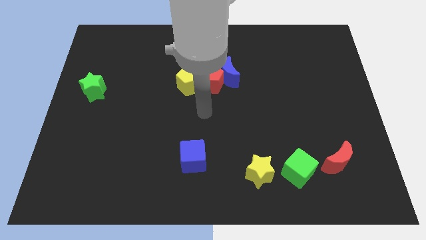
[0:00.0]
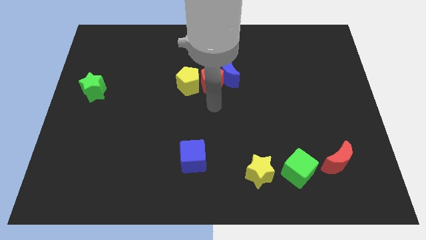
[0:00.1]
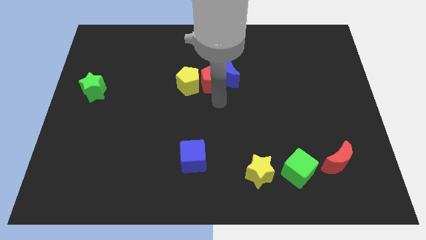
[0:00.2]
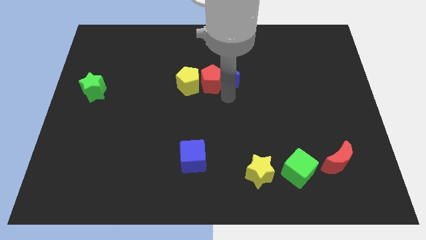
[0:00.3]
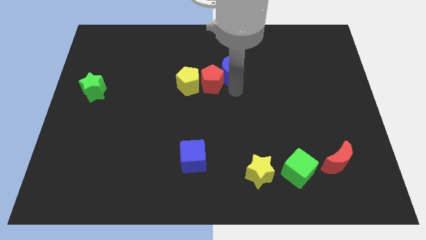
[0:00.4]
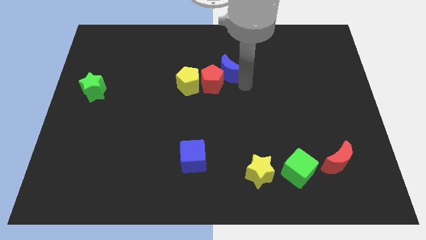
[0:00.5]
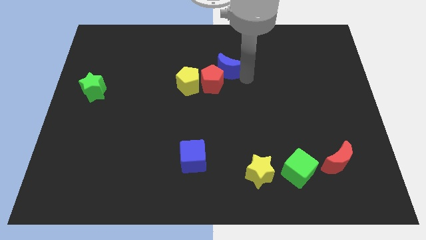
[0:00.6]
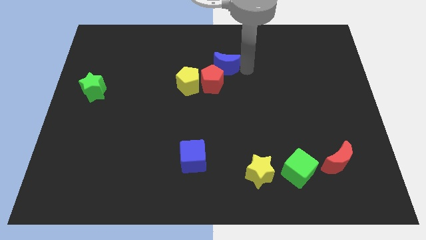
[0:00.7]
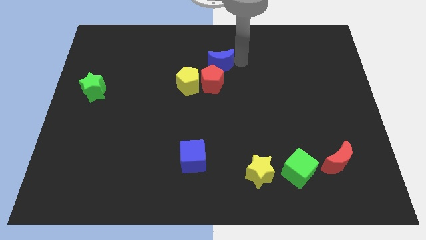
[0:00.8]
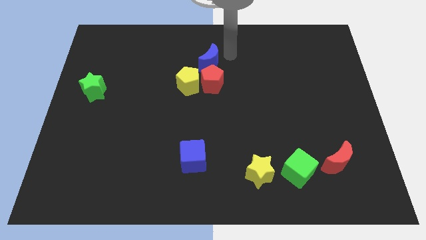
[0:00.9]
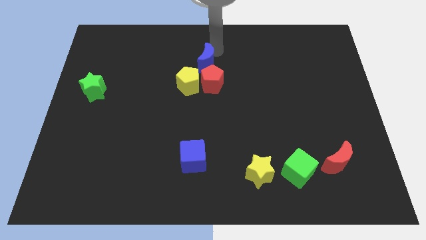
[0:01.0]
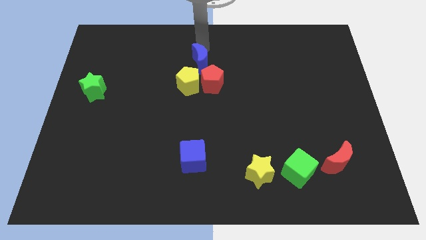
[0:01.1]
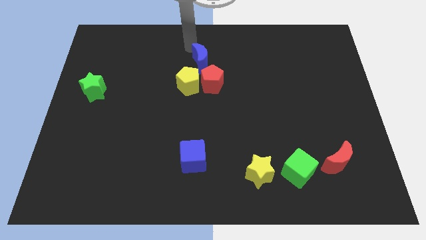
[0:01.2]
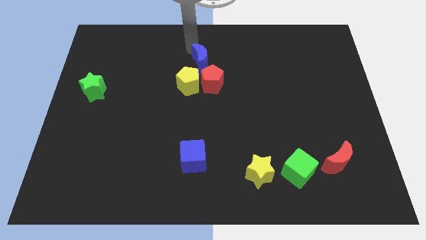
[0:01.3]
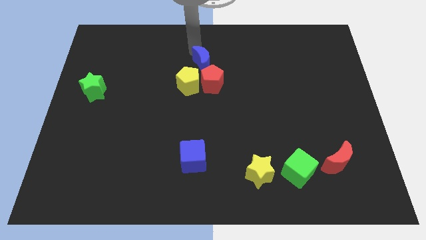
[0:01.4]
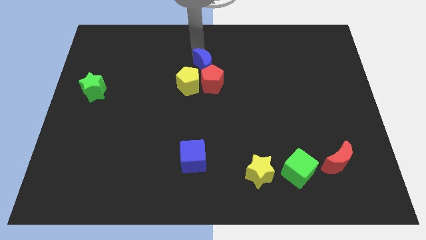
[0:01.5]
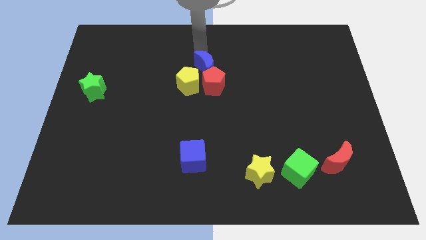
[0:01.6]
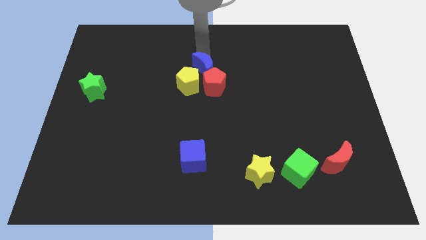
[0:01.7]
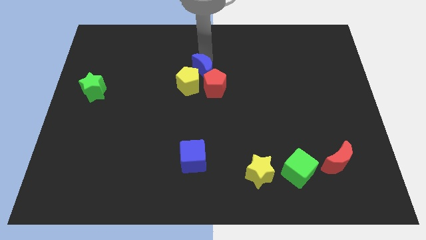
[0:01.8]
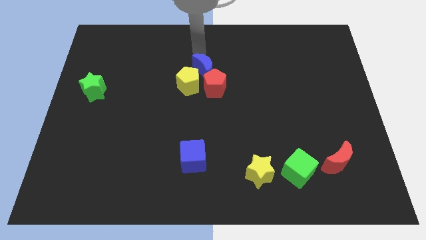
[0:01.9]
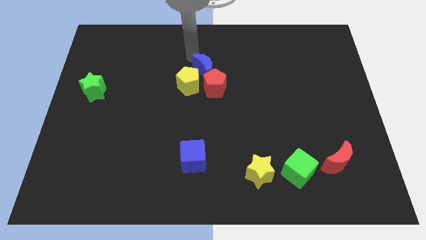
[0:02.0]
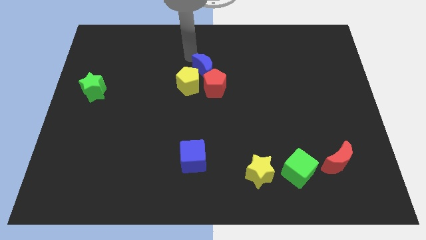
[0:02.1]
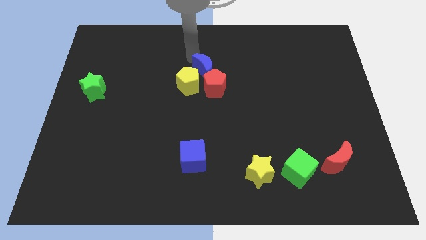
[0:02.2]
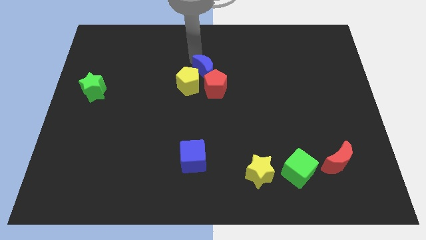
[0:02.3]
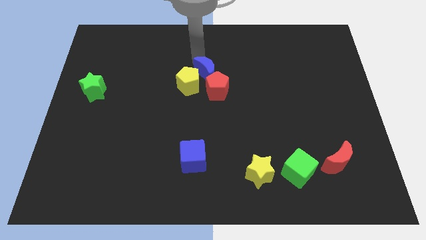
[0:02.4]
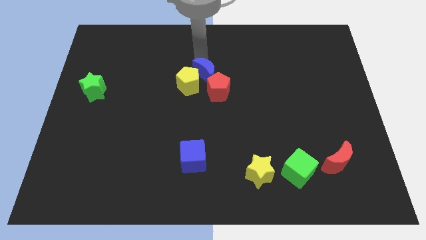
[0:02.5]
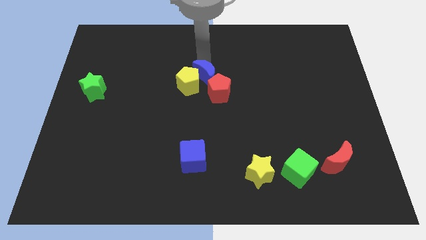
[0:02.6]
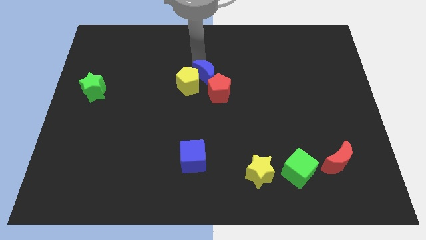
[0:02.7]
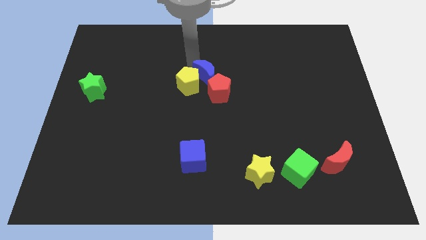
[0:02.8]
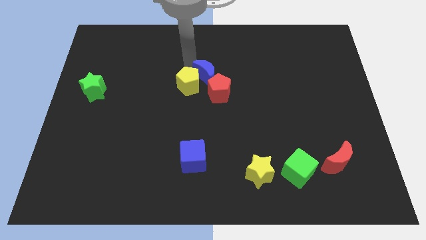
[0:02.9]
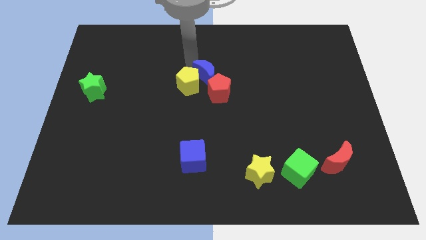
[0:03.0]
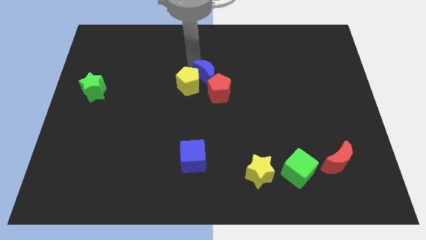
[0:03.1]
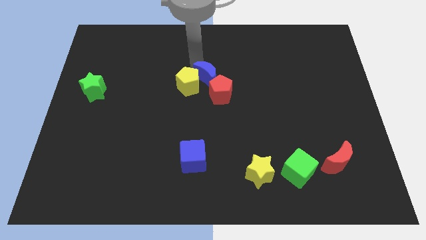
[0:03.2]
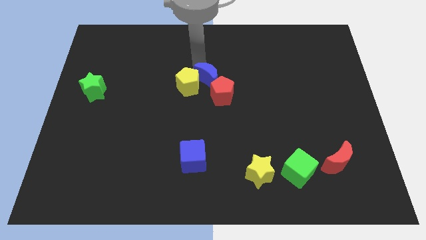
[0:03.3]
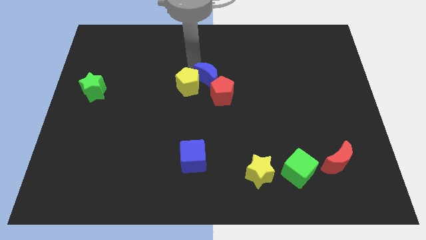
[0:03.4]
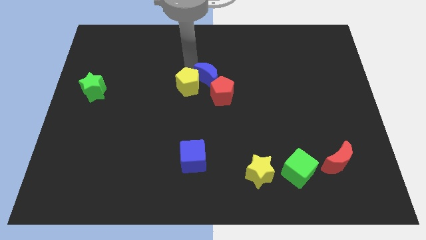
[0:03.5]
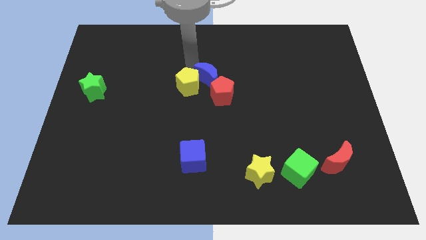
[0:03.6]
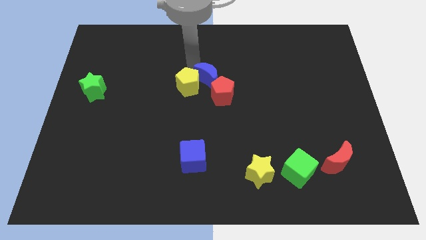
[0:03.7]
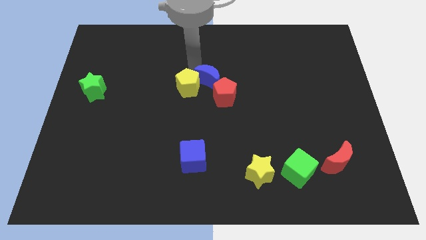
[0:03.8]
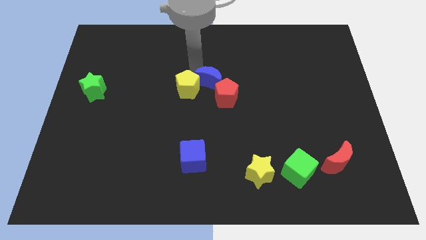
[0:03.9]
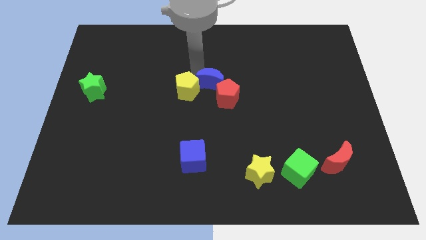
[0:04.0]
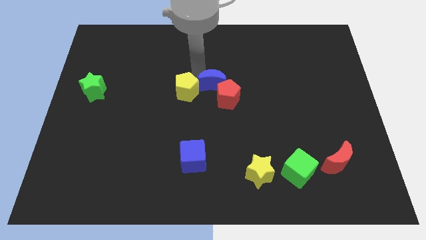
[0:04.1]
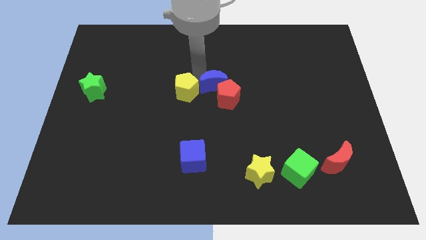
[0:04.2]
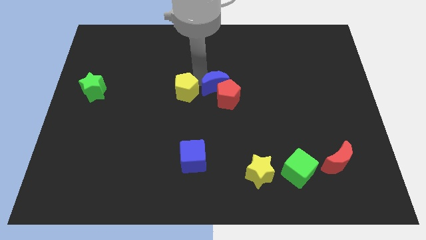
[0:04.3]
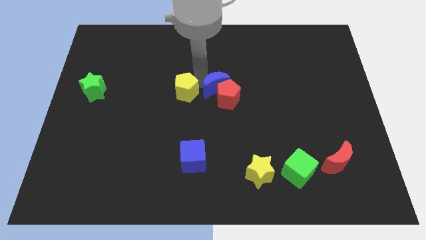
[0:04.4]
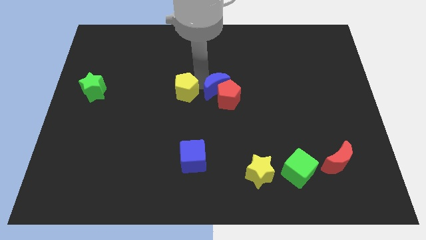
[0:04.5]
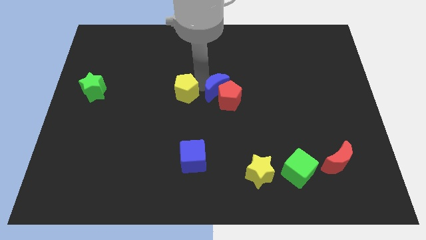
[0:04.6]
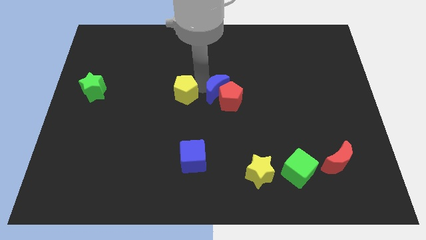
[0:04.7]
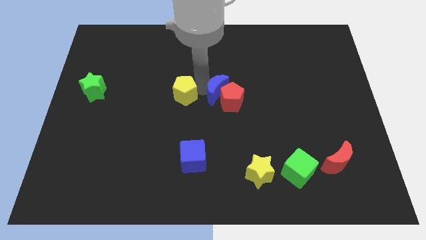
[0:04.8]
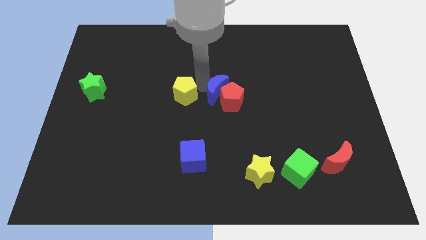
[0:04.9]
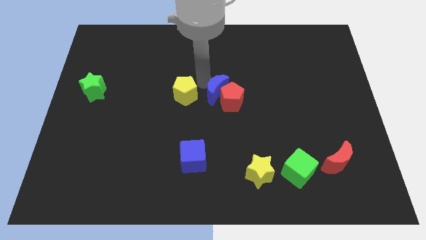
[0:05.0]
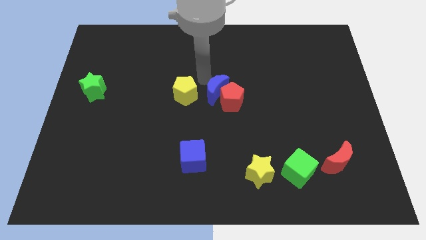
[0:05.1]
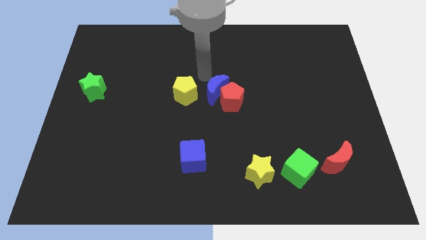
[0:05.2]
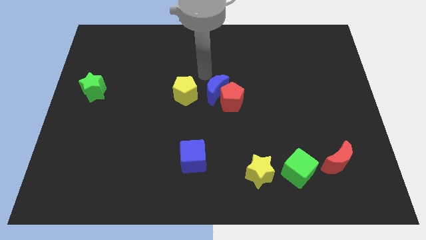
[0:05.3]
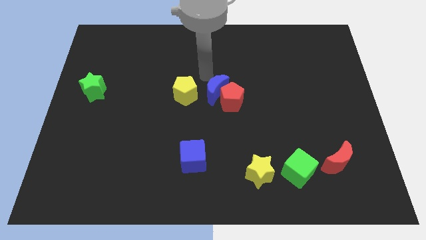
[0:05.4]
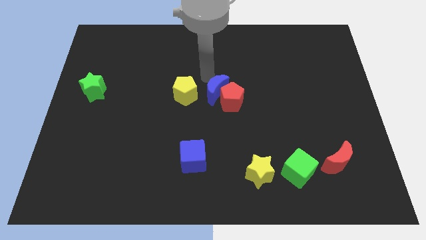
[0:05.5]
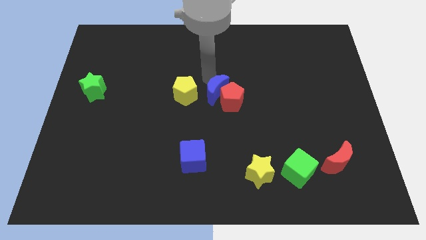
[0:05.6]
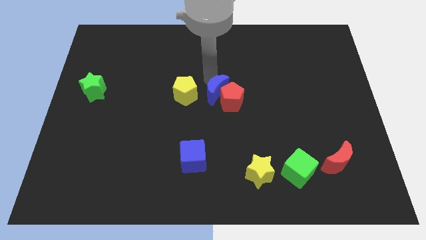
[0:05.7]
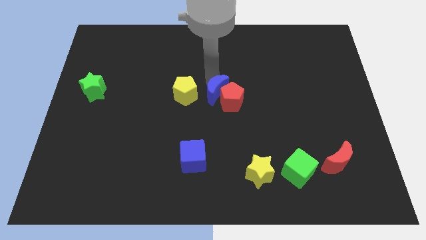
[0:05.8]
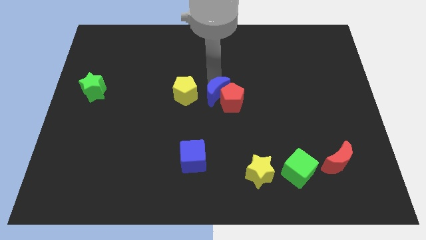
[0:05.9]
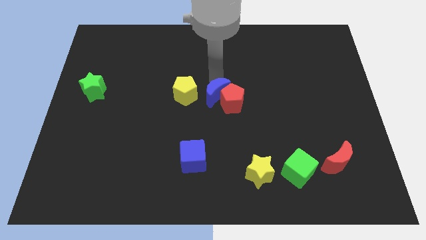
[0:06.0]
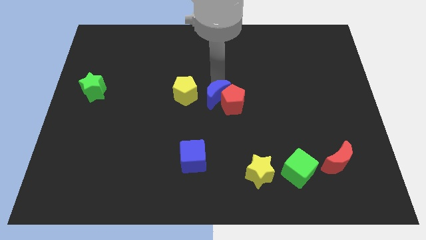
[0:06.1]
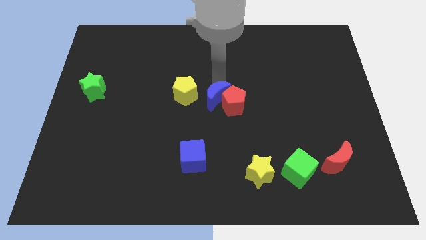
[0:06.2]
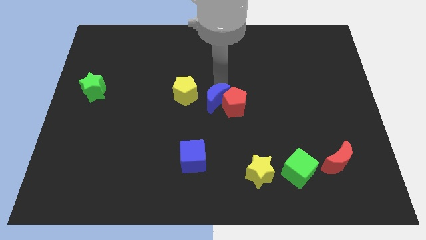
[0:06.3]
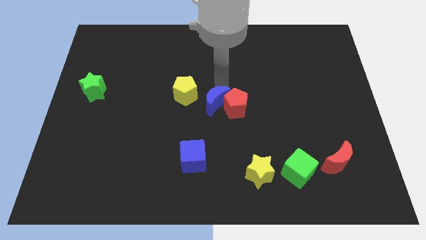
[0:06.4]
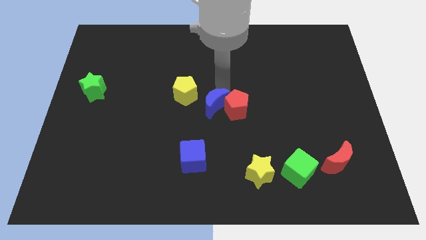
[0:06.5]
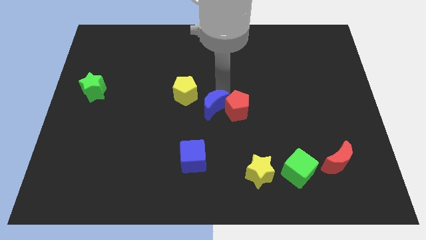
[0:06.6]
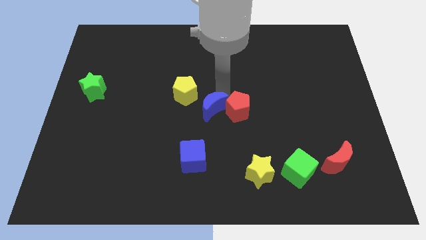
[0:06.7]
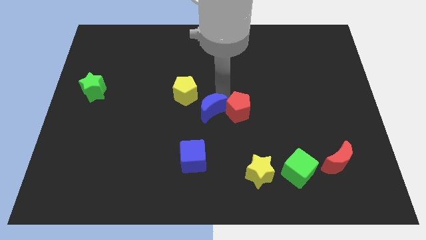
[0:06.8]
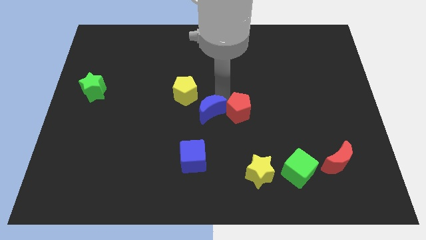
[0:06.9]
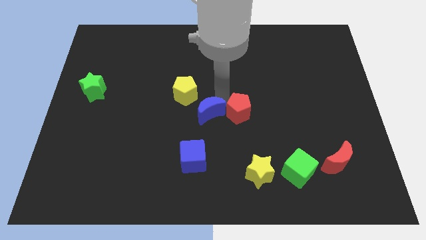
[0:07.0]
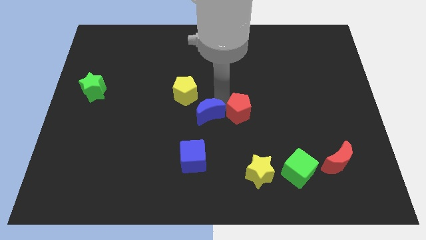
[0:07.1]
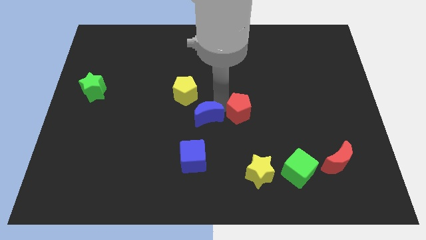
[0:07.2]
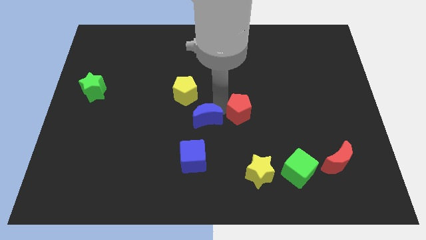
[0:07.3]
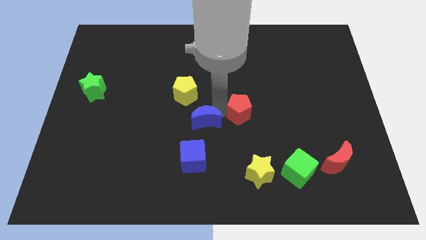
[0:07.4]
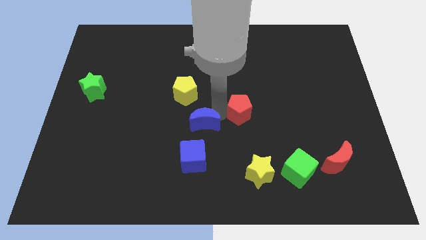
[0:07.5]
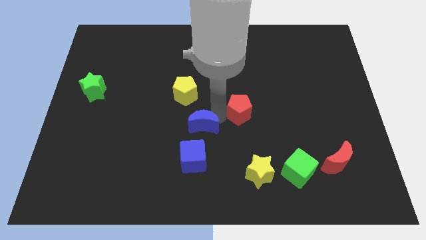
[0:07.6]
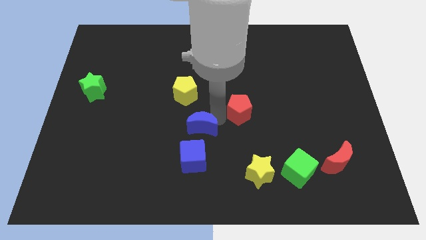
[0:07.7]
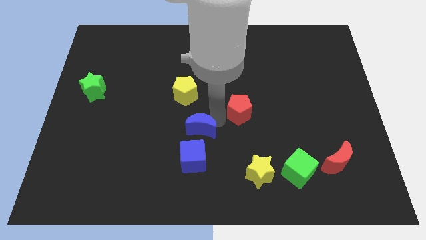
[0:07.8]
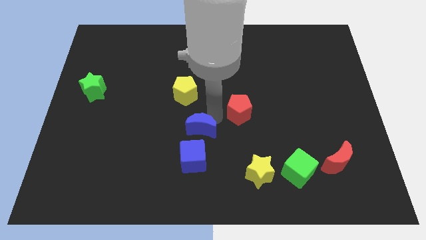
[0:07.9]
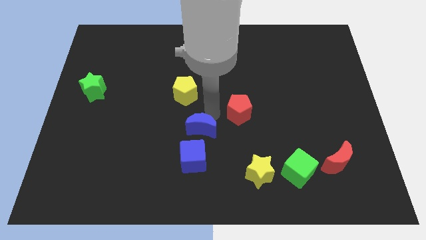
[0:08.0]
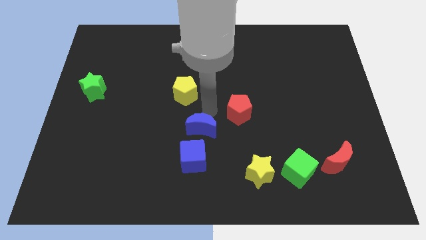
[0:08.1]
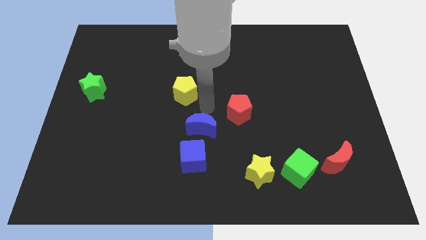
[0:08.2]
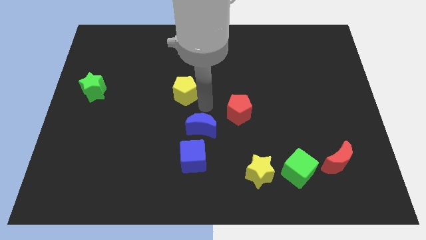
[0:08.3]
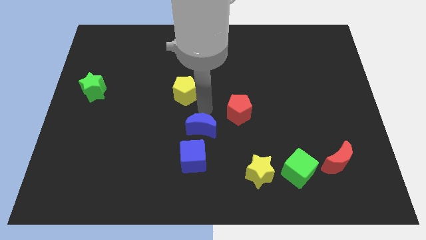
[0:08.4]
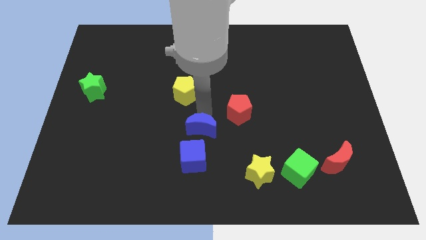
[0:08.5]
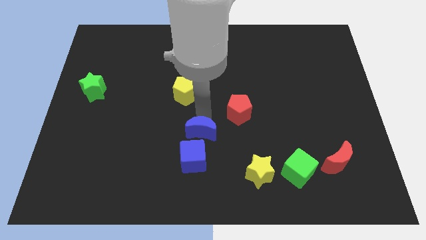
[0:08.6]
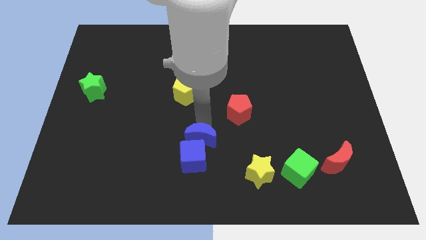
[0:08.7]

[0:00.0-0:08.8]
put the blue moon towards the blue cube
